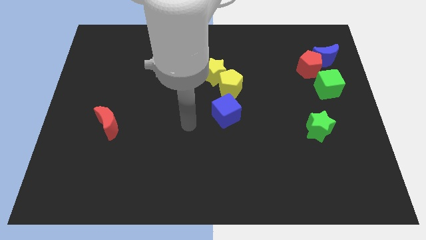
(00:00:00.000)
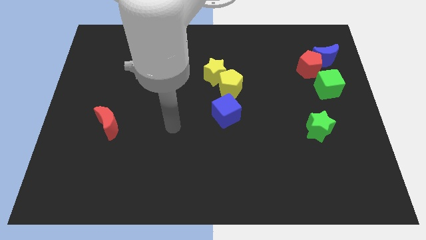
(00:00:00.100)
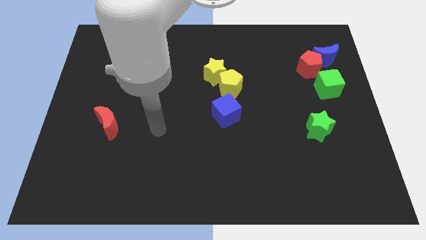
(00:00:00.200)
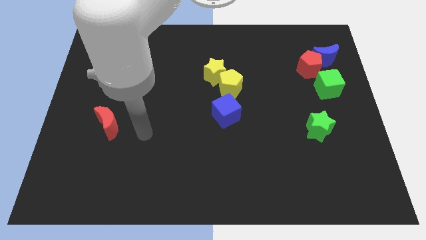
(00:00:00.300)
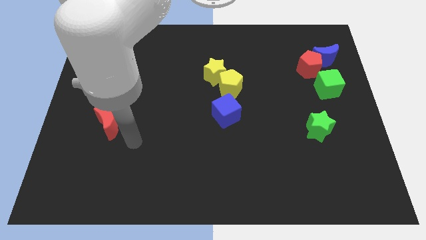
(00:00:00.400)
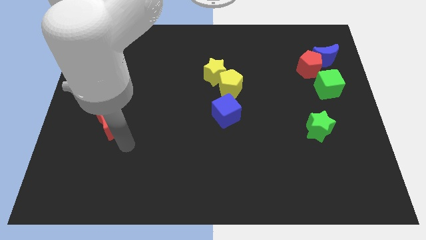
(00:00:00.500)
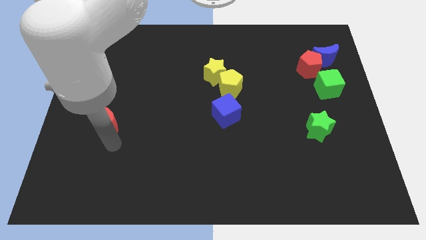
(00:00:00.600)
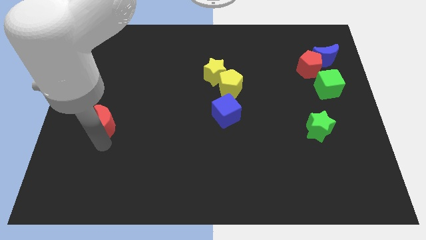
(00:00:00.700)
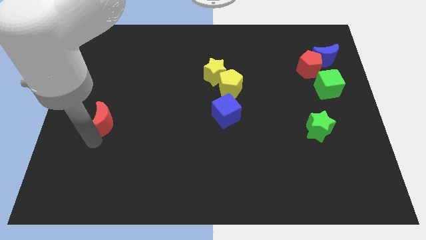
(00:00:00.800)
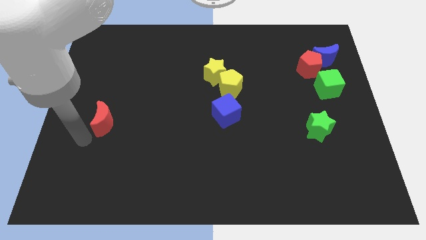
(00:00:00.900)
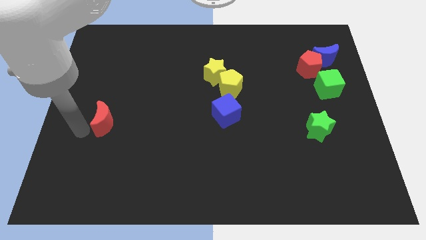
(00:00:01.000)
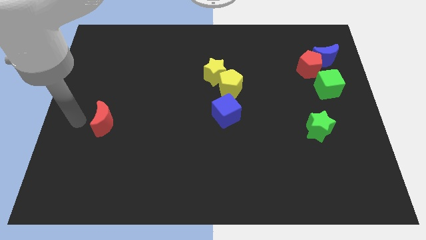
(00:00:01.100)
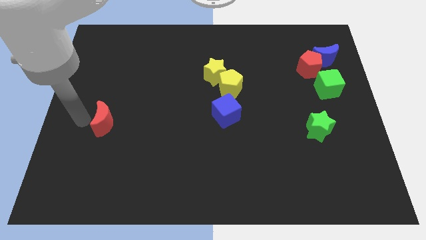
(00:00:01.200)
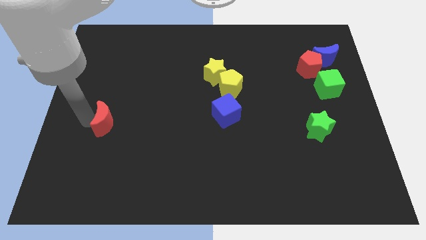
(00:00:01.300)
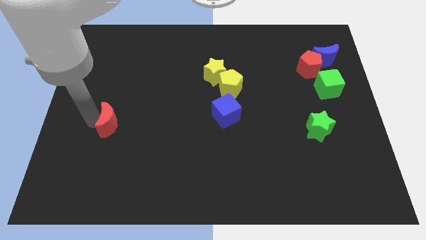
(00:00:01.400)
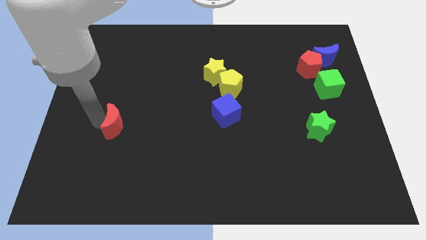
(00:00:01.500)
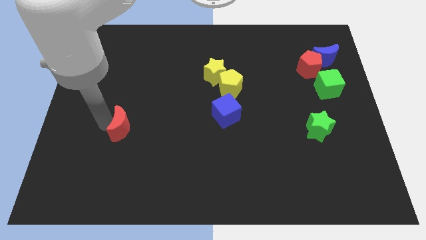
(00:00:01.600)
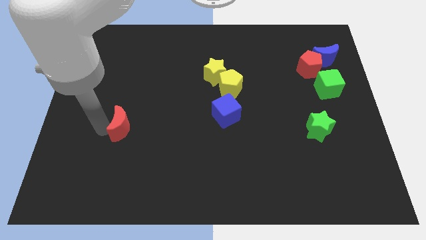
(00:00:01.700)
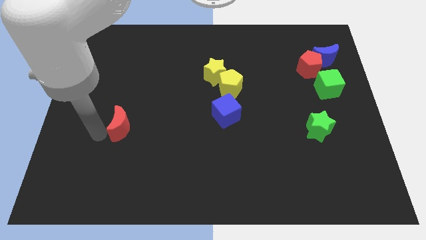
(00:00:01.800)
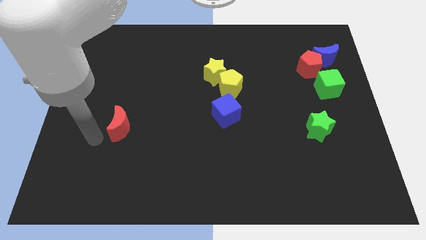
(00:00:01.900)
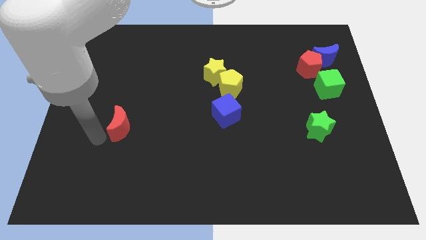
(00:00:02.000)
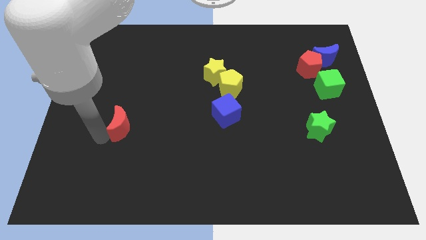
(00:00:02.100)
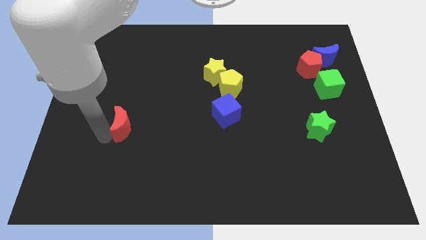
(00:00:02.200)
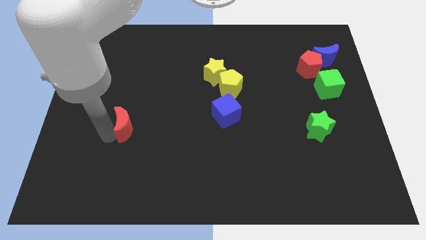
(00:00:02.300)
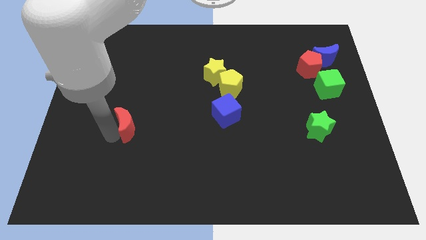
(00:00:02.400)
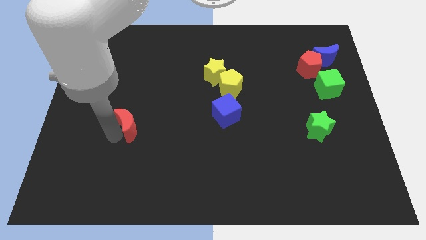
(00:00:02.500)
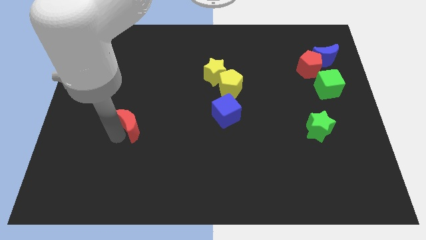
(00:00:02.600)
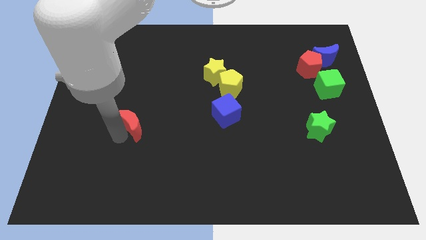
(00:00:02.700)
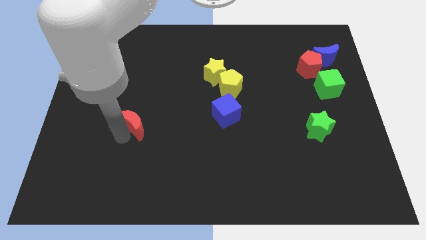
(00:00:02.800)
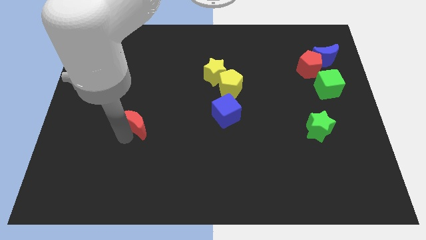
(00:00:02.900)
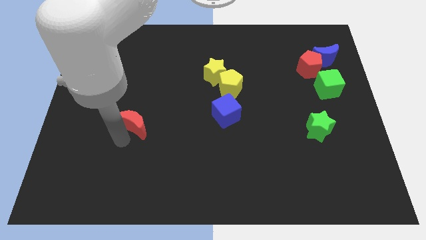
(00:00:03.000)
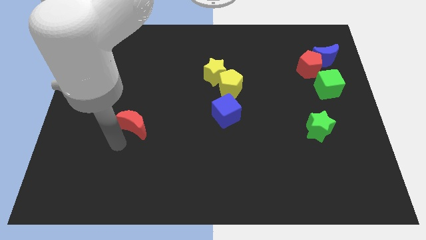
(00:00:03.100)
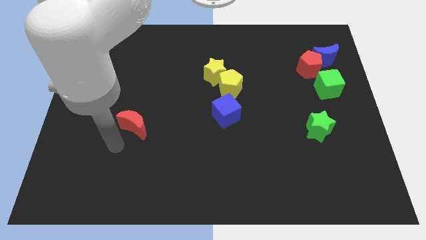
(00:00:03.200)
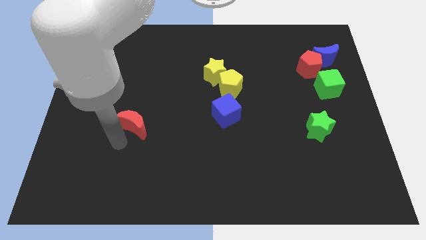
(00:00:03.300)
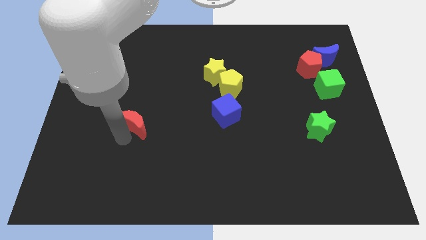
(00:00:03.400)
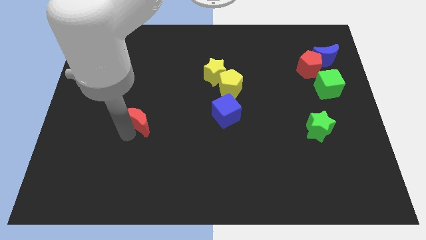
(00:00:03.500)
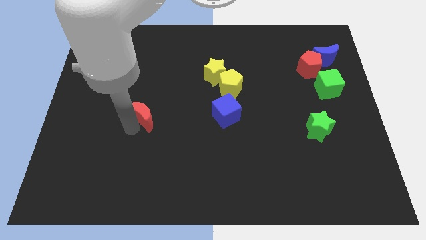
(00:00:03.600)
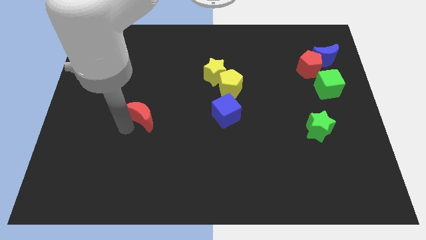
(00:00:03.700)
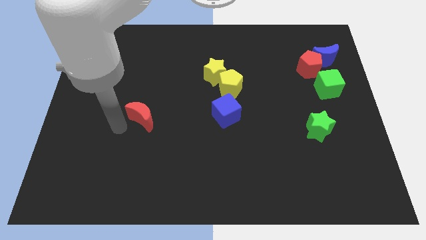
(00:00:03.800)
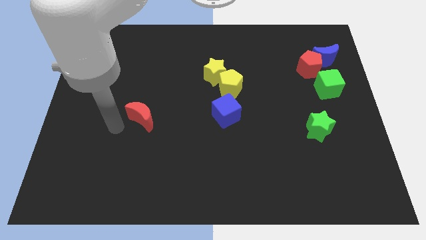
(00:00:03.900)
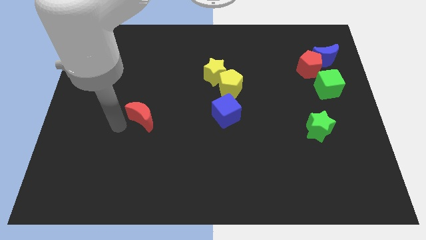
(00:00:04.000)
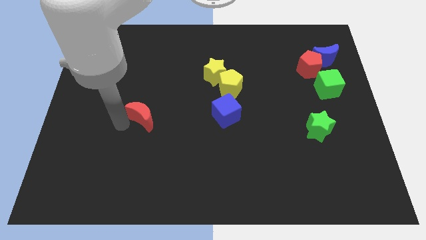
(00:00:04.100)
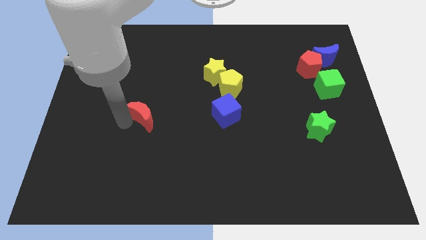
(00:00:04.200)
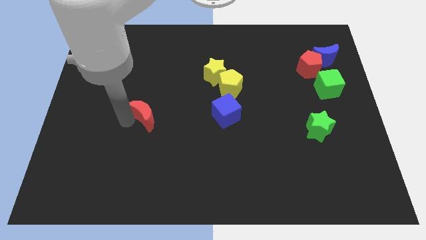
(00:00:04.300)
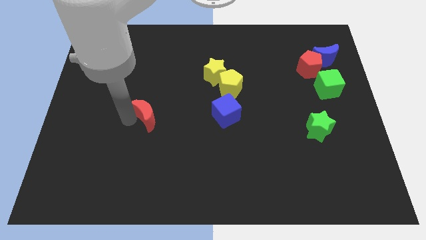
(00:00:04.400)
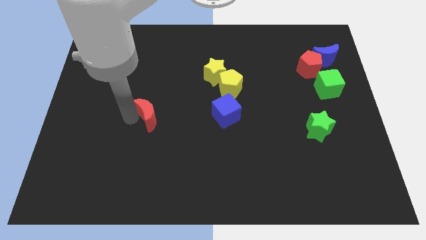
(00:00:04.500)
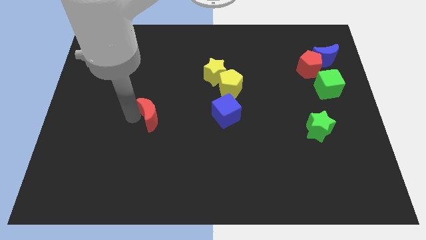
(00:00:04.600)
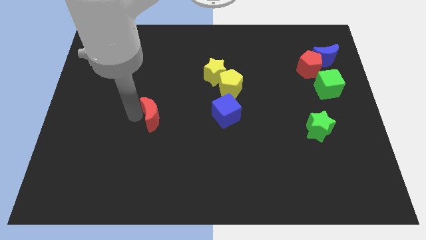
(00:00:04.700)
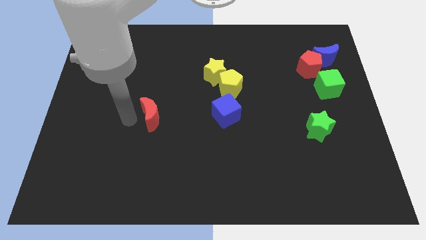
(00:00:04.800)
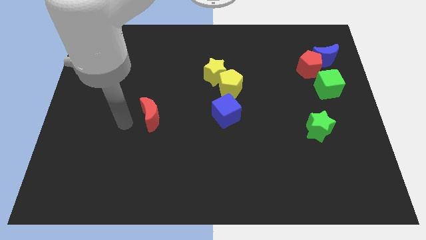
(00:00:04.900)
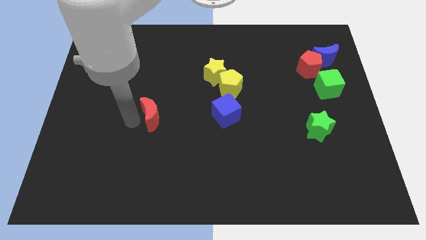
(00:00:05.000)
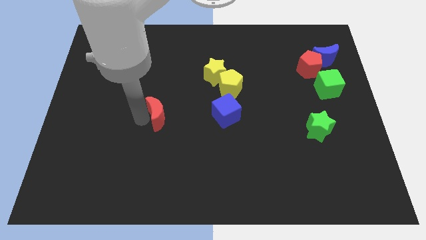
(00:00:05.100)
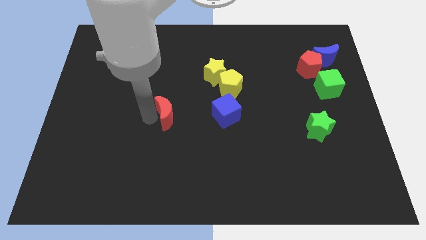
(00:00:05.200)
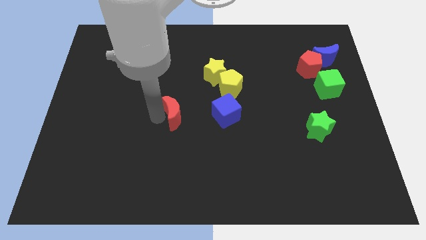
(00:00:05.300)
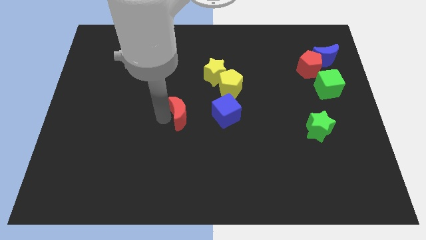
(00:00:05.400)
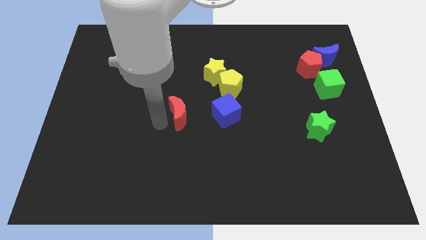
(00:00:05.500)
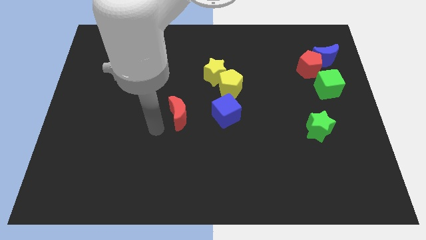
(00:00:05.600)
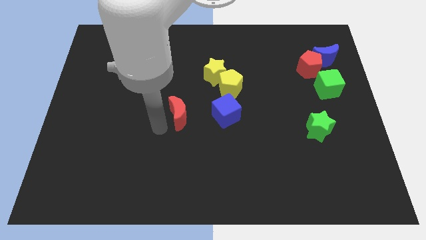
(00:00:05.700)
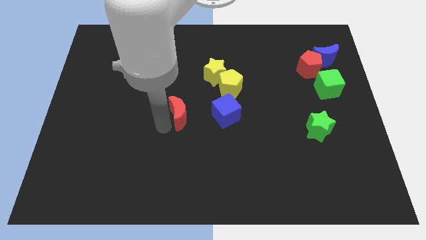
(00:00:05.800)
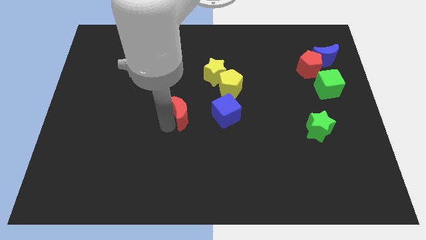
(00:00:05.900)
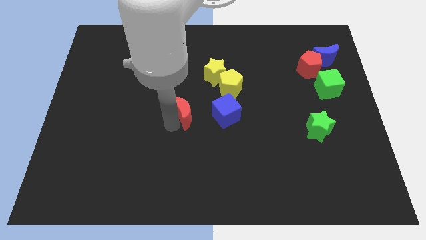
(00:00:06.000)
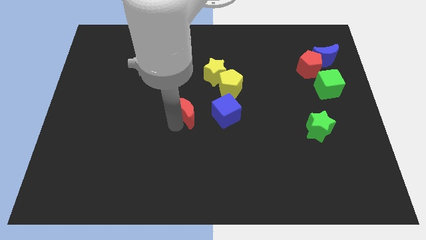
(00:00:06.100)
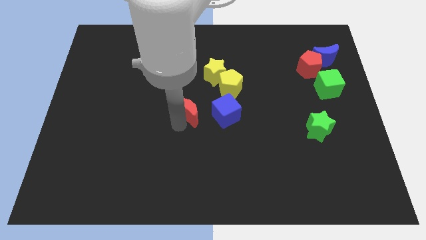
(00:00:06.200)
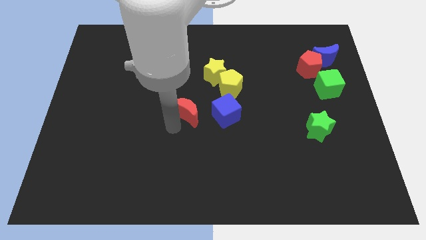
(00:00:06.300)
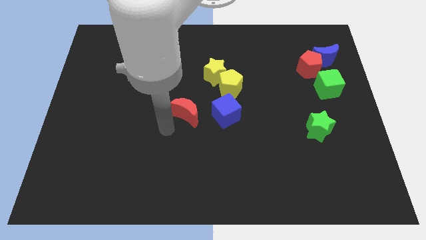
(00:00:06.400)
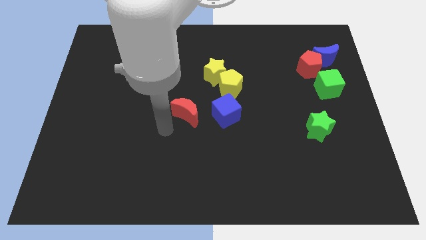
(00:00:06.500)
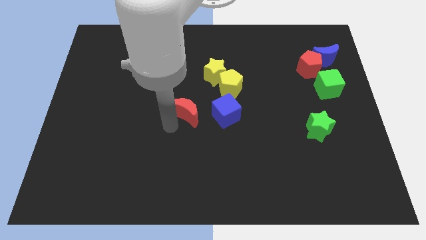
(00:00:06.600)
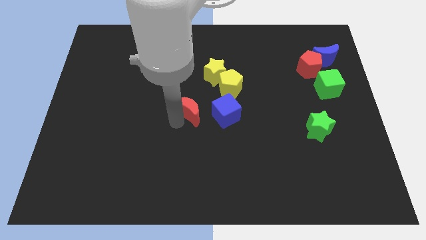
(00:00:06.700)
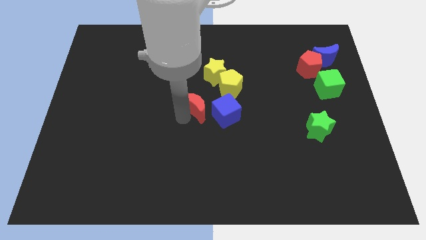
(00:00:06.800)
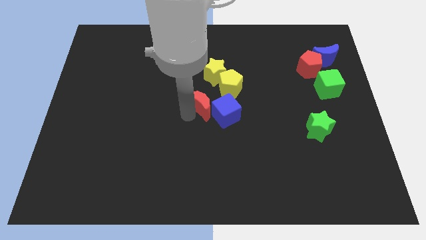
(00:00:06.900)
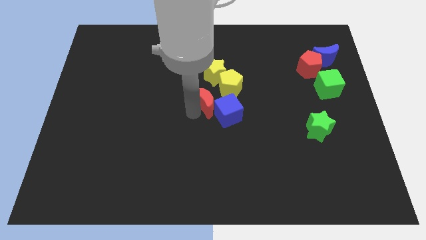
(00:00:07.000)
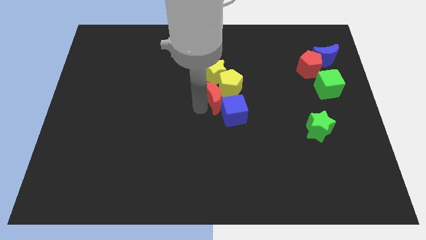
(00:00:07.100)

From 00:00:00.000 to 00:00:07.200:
put the red moon to the yellow pentagon

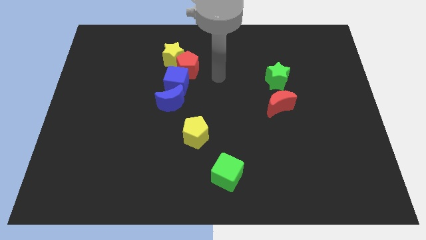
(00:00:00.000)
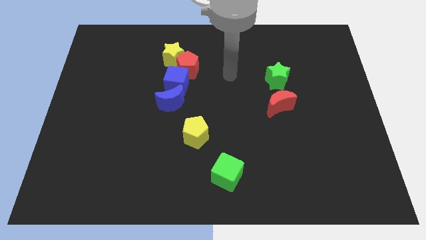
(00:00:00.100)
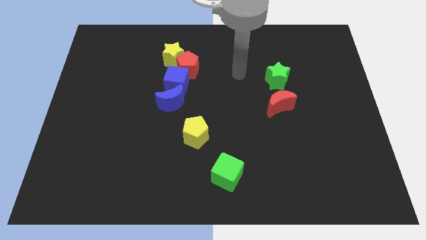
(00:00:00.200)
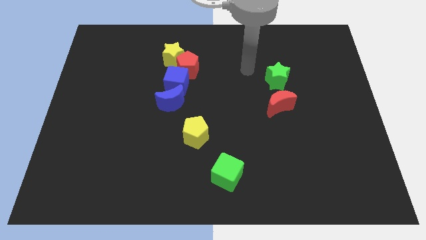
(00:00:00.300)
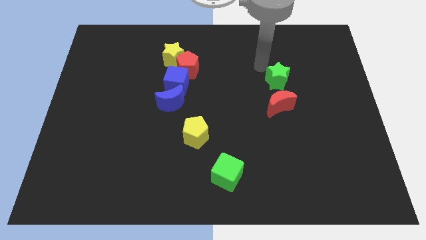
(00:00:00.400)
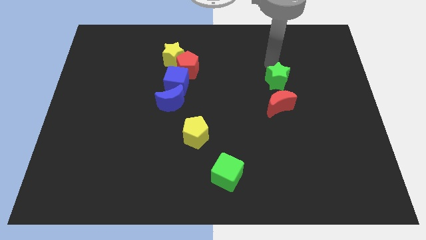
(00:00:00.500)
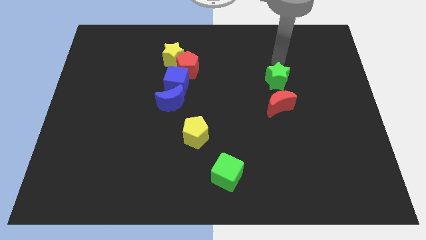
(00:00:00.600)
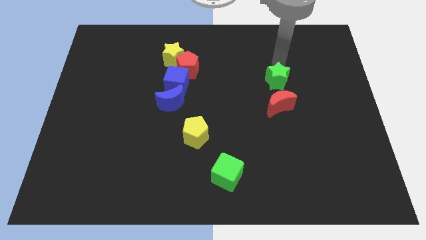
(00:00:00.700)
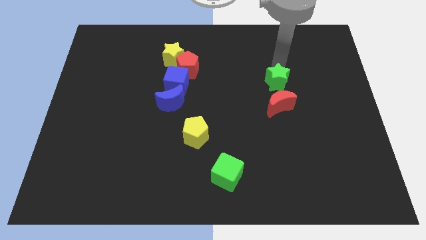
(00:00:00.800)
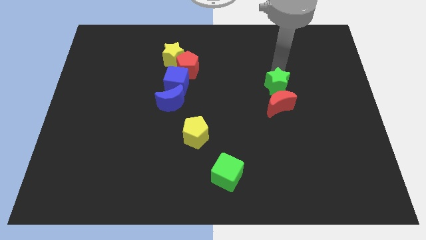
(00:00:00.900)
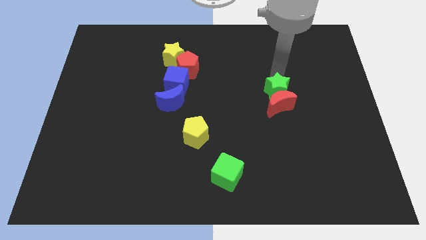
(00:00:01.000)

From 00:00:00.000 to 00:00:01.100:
slide the green star to the red moon
